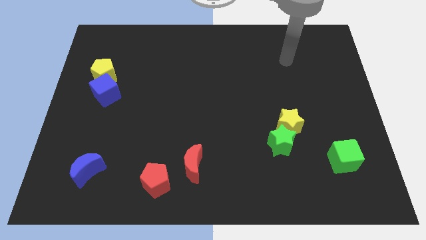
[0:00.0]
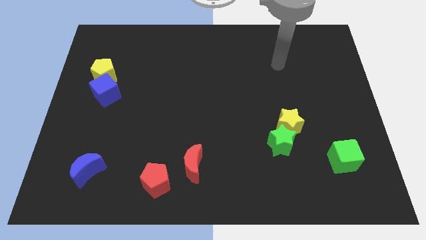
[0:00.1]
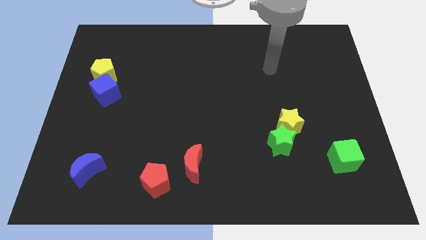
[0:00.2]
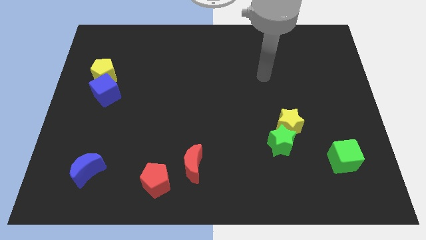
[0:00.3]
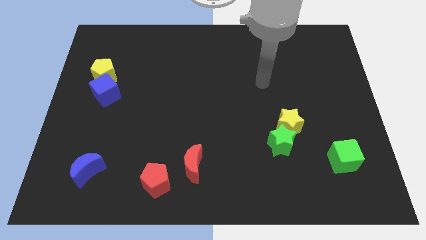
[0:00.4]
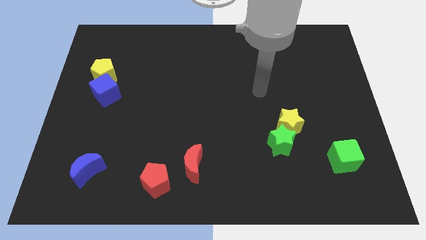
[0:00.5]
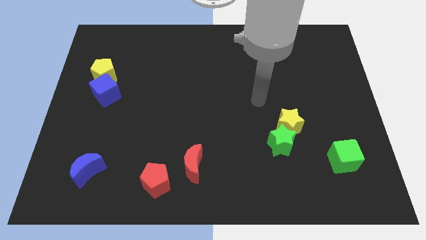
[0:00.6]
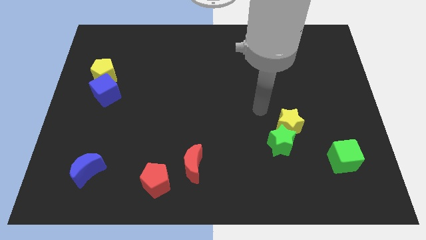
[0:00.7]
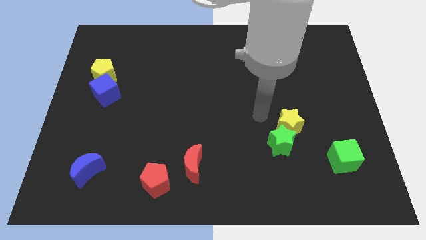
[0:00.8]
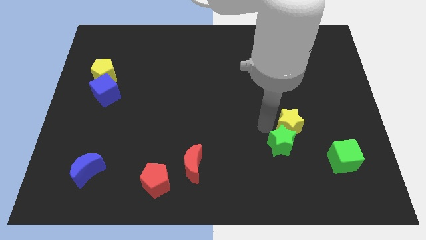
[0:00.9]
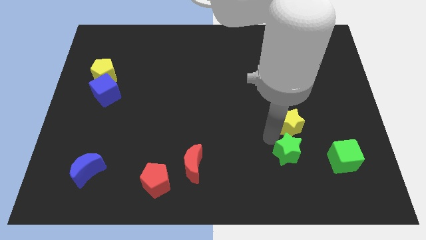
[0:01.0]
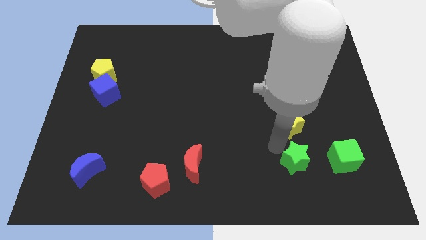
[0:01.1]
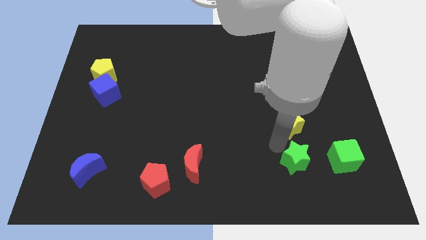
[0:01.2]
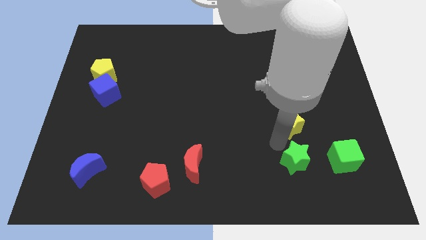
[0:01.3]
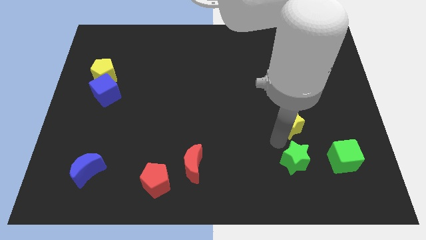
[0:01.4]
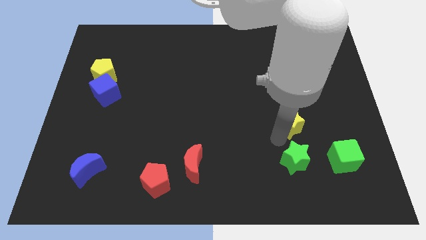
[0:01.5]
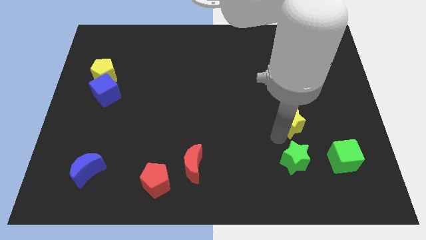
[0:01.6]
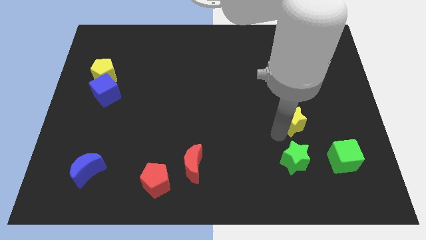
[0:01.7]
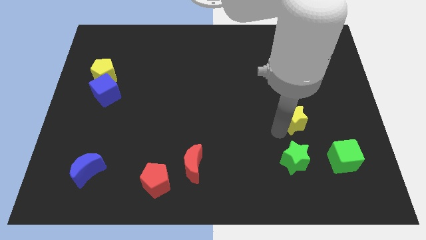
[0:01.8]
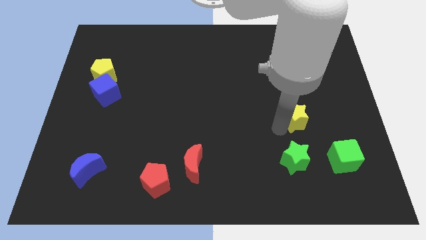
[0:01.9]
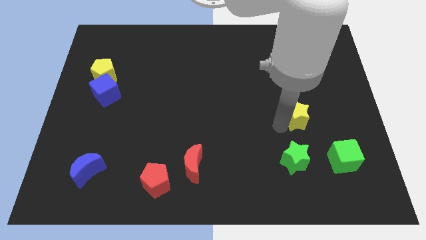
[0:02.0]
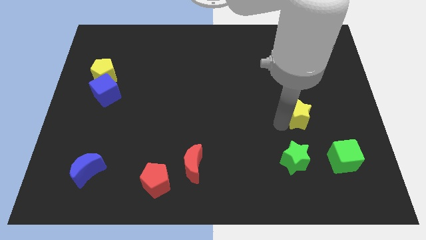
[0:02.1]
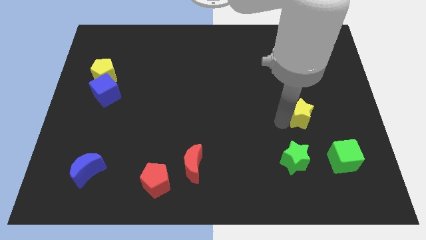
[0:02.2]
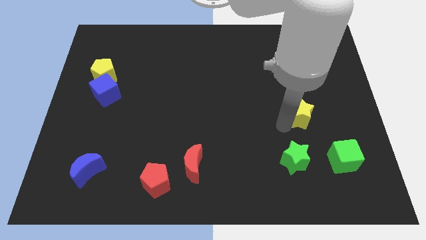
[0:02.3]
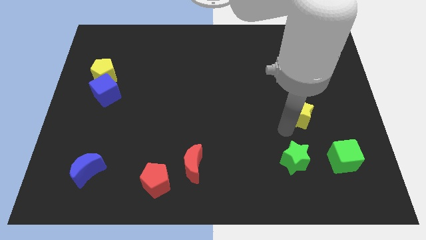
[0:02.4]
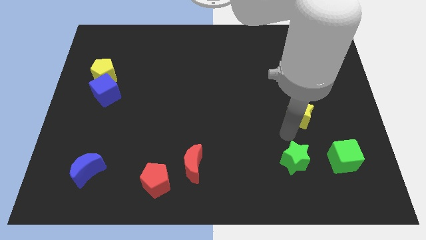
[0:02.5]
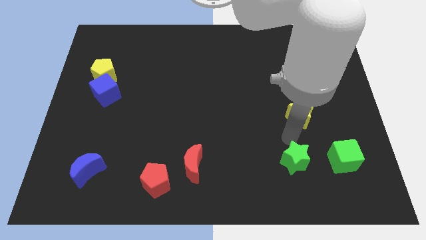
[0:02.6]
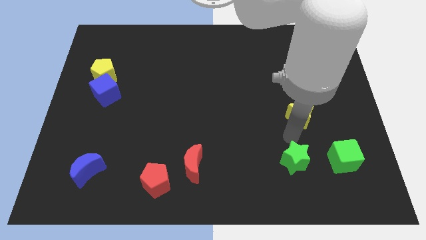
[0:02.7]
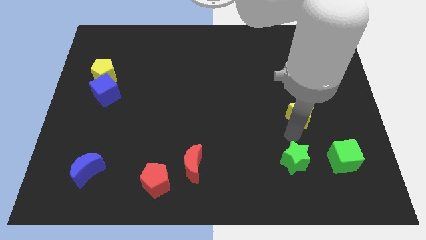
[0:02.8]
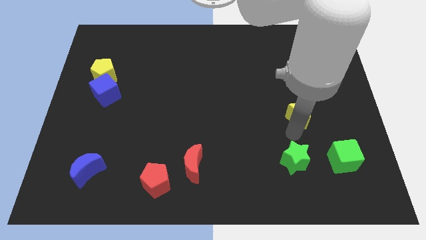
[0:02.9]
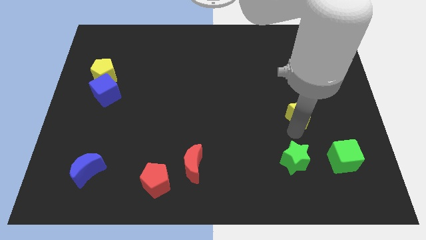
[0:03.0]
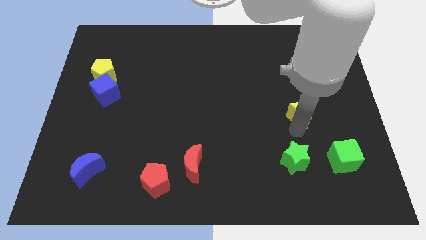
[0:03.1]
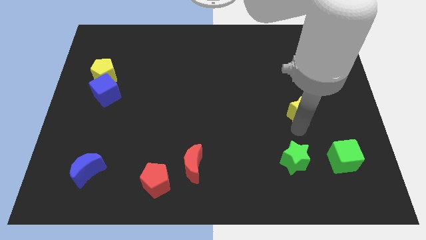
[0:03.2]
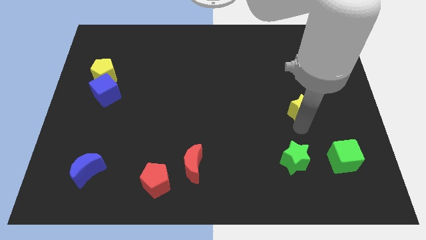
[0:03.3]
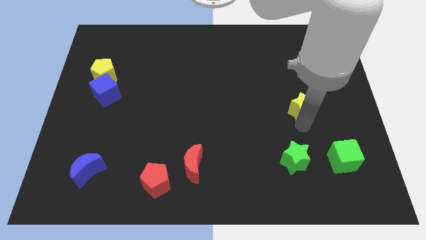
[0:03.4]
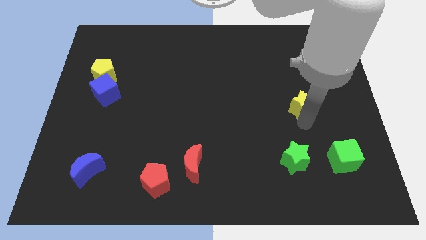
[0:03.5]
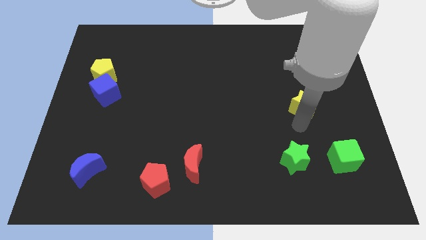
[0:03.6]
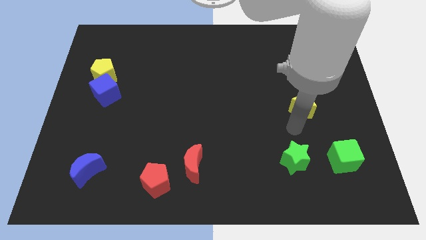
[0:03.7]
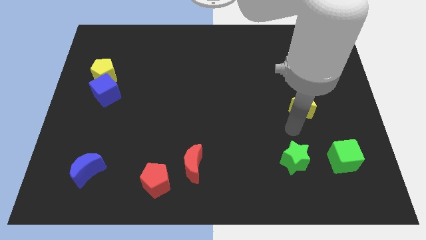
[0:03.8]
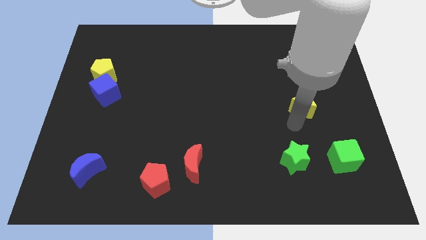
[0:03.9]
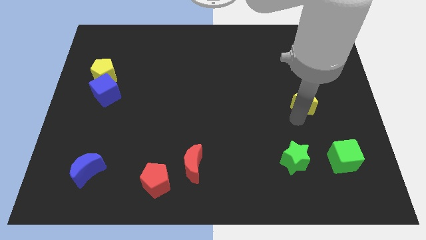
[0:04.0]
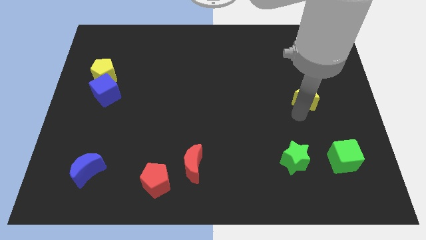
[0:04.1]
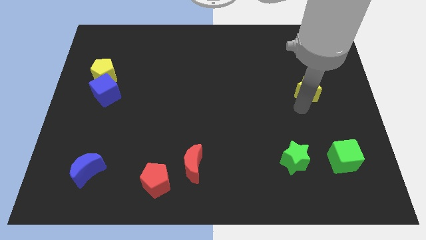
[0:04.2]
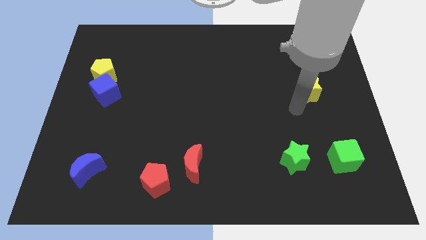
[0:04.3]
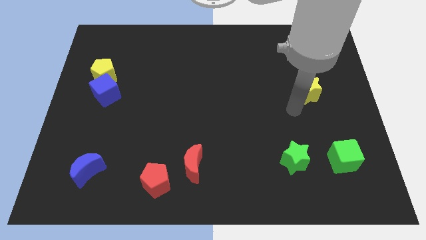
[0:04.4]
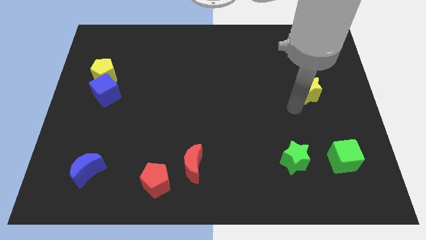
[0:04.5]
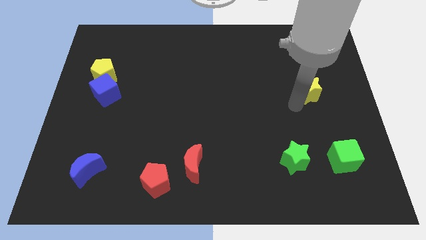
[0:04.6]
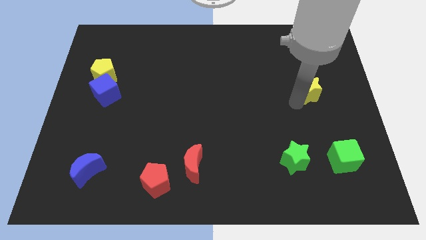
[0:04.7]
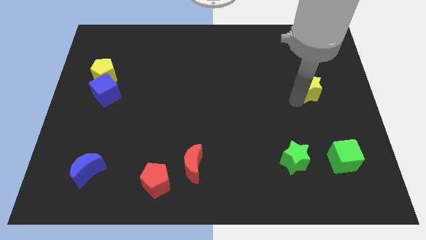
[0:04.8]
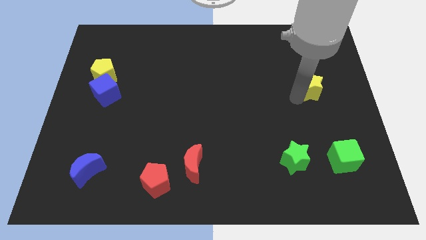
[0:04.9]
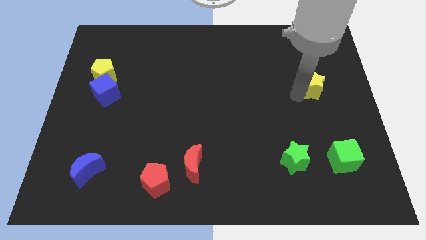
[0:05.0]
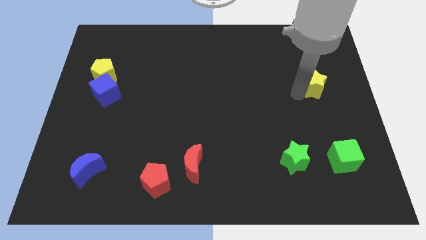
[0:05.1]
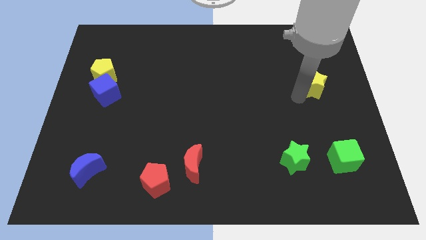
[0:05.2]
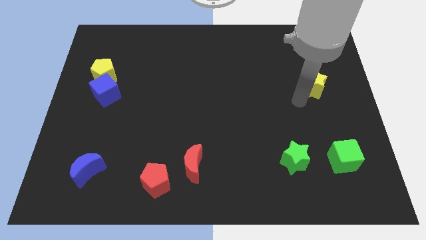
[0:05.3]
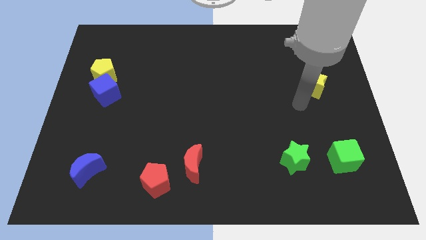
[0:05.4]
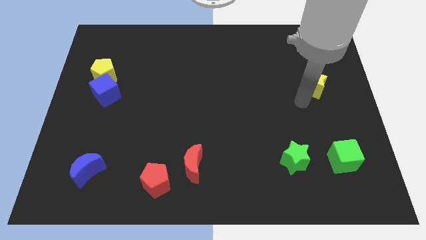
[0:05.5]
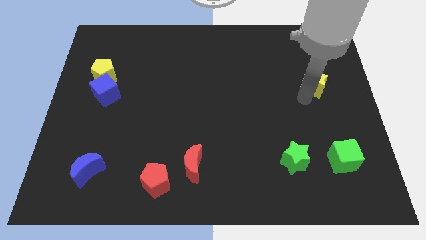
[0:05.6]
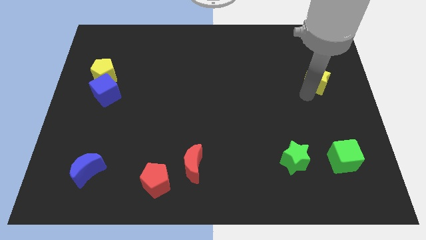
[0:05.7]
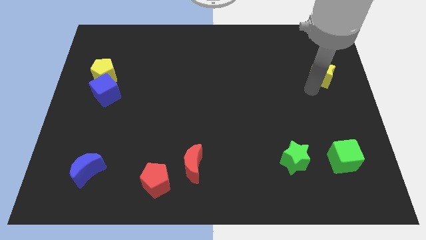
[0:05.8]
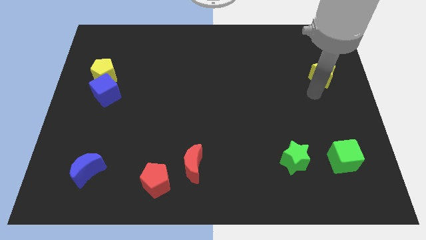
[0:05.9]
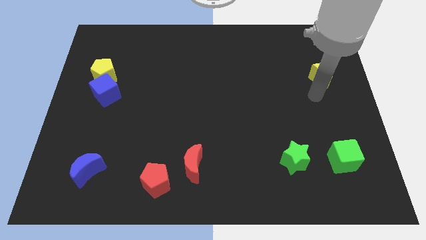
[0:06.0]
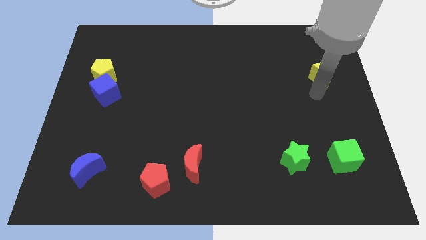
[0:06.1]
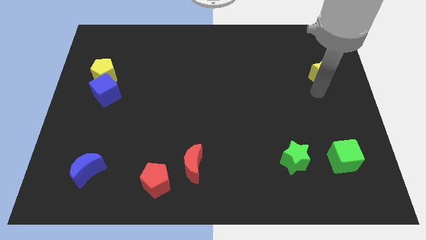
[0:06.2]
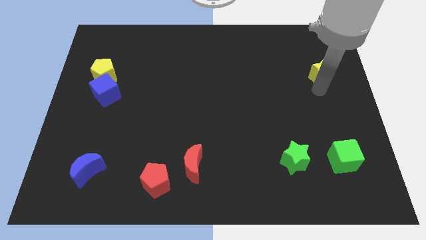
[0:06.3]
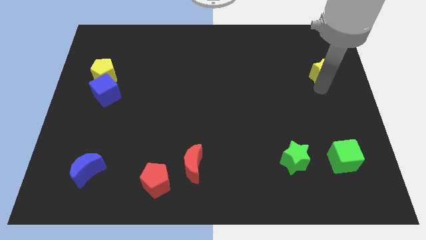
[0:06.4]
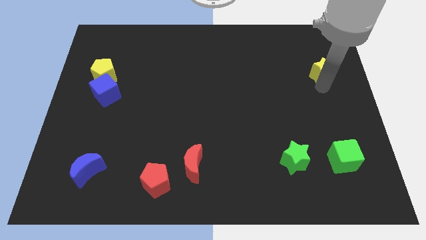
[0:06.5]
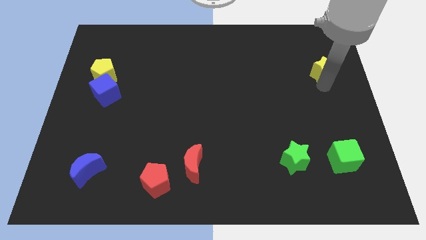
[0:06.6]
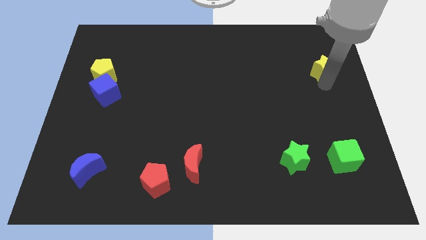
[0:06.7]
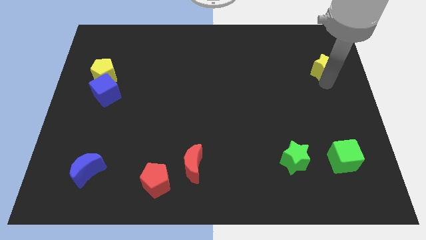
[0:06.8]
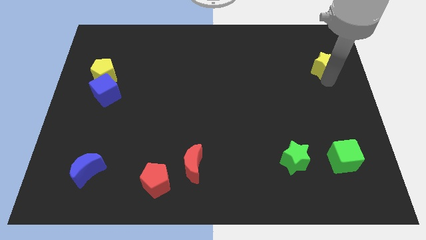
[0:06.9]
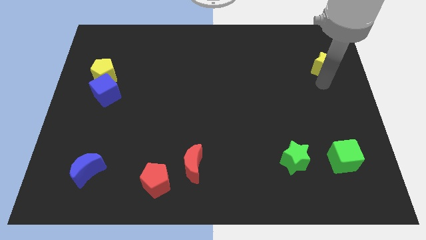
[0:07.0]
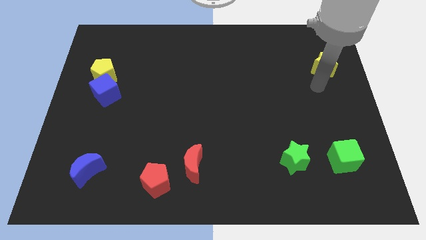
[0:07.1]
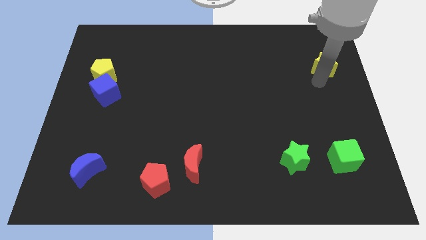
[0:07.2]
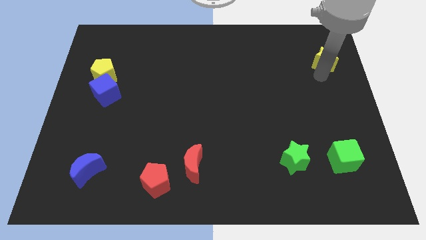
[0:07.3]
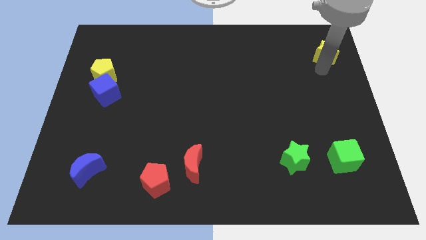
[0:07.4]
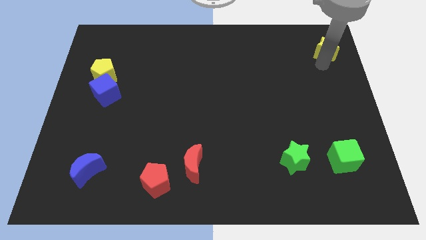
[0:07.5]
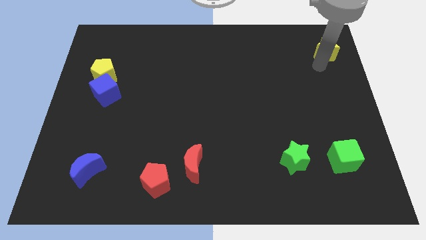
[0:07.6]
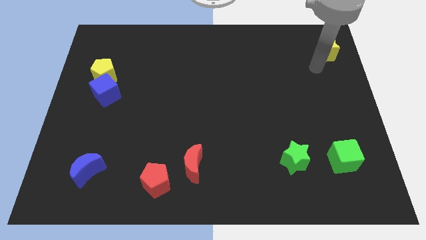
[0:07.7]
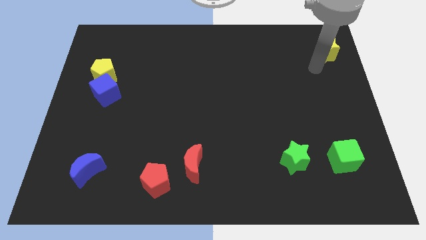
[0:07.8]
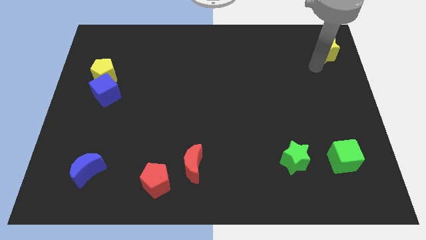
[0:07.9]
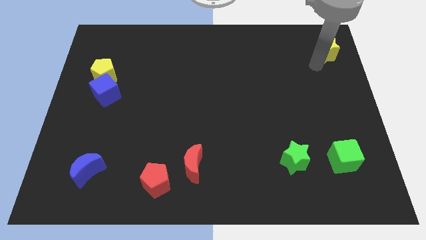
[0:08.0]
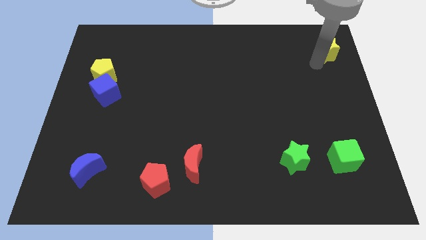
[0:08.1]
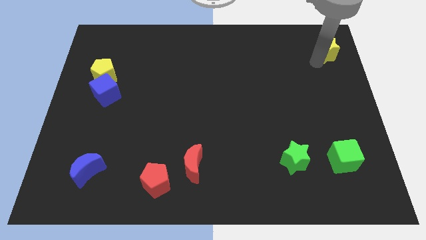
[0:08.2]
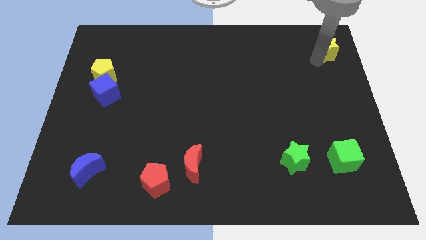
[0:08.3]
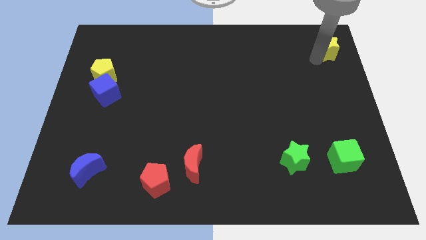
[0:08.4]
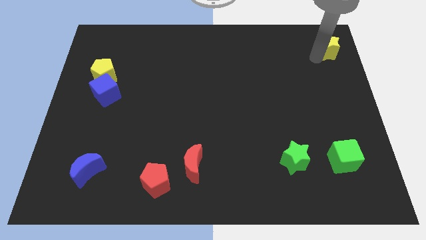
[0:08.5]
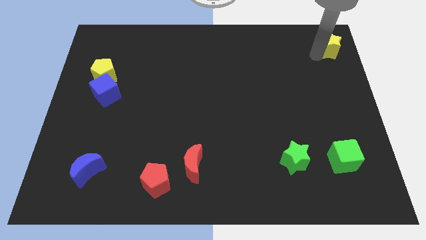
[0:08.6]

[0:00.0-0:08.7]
slide the yellow star to the top right of the board
